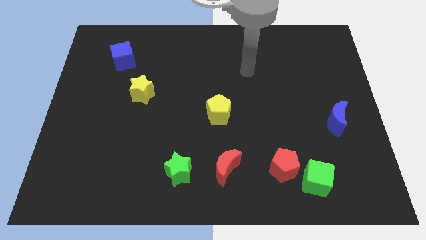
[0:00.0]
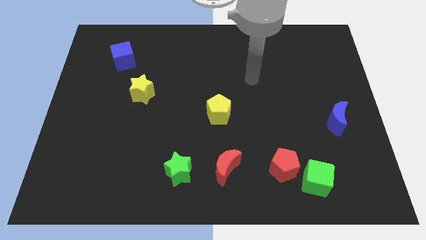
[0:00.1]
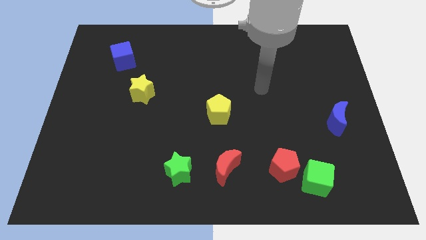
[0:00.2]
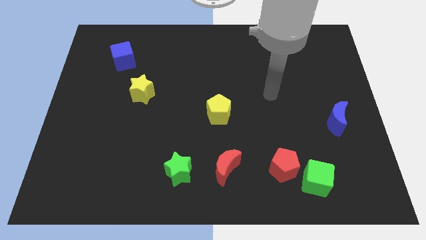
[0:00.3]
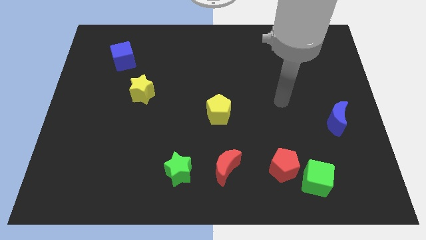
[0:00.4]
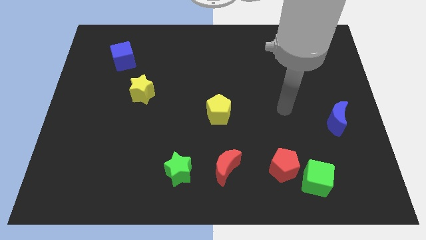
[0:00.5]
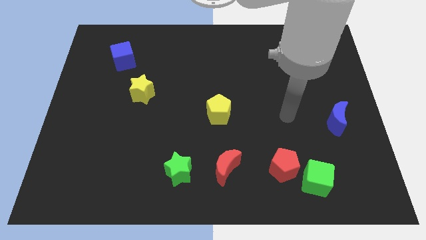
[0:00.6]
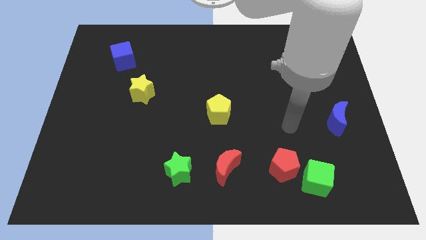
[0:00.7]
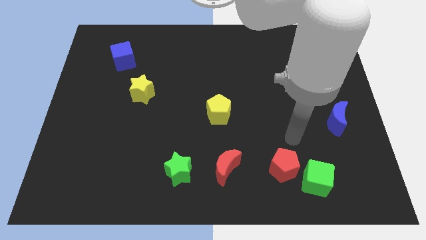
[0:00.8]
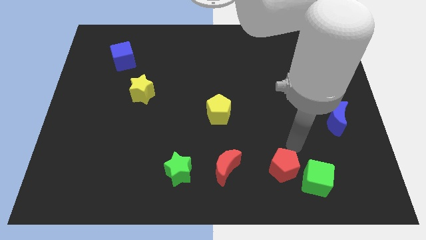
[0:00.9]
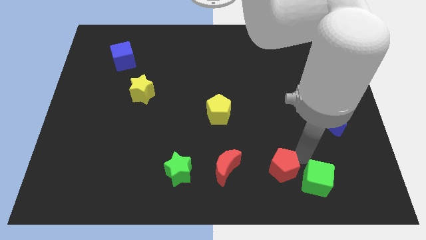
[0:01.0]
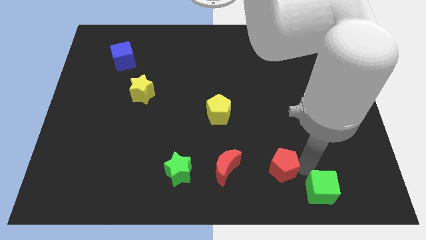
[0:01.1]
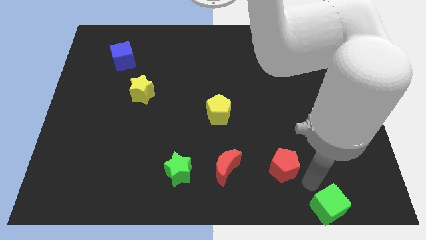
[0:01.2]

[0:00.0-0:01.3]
move the red pentagon away from the green cube

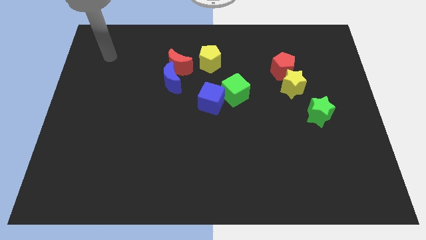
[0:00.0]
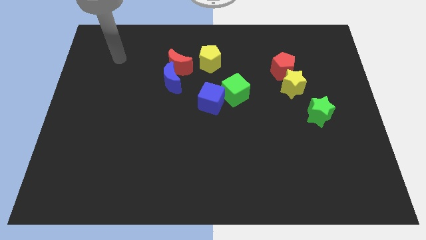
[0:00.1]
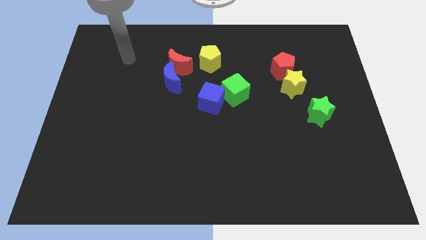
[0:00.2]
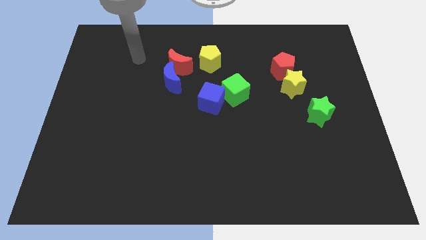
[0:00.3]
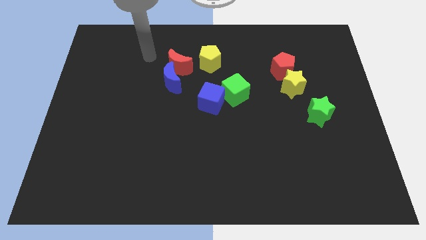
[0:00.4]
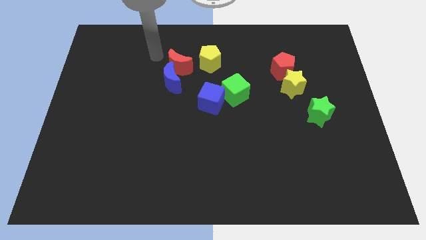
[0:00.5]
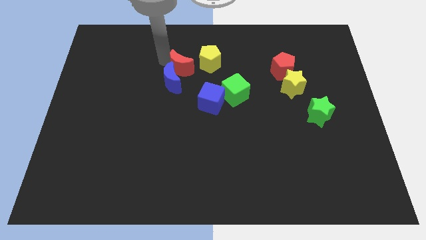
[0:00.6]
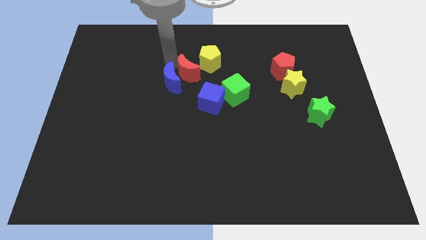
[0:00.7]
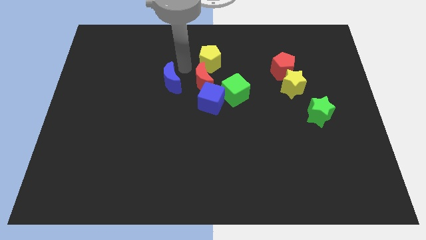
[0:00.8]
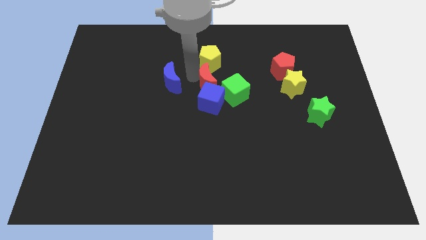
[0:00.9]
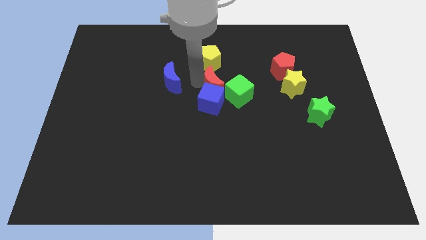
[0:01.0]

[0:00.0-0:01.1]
move the blue moon away from the red moon

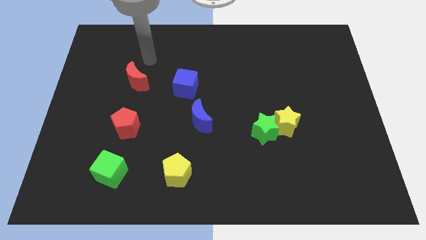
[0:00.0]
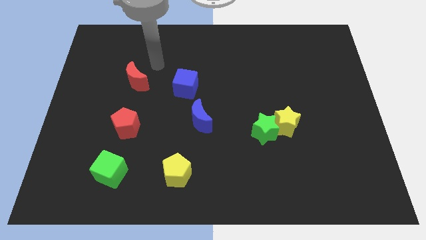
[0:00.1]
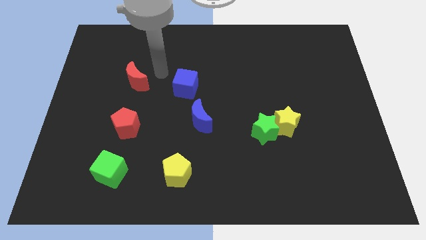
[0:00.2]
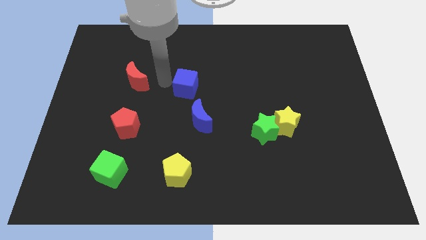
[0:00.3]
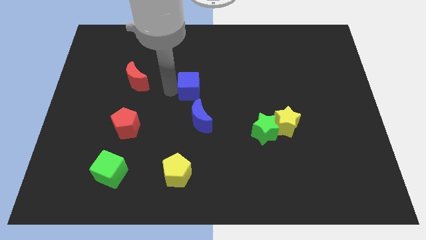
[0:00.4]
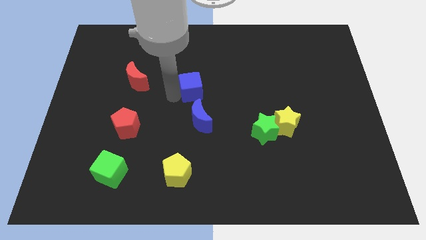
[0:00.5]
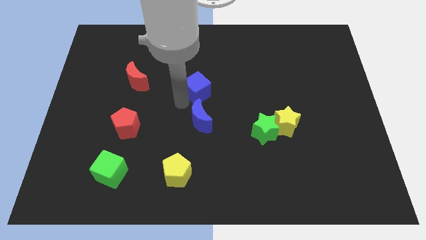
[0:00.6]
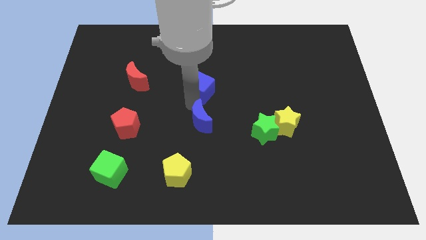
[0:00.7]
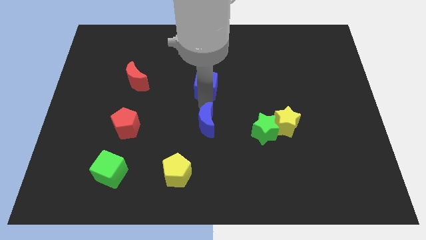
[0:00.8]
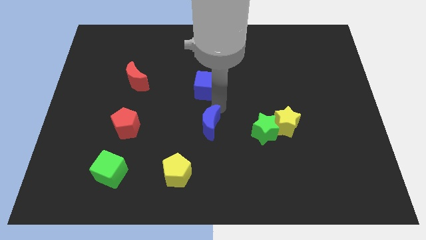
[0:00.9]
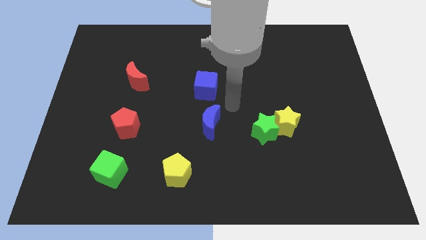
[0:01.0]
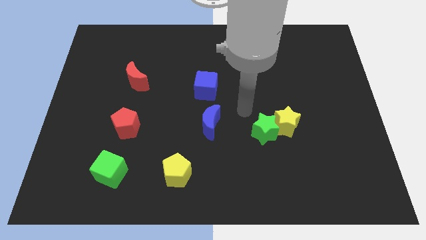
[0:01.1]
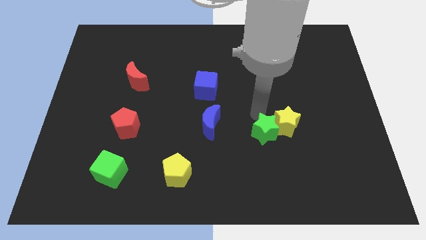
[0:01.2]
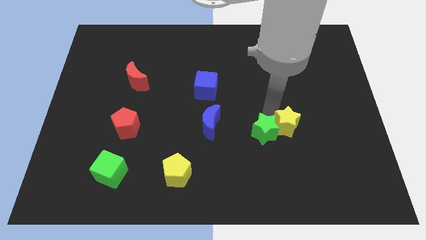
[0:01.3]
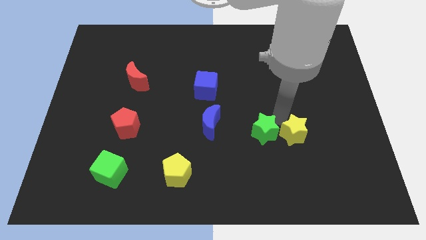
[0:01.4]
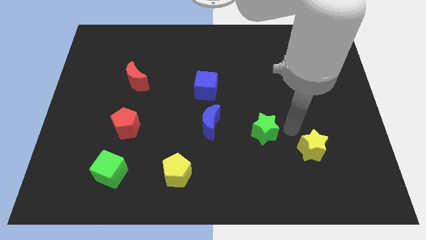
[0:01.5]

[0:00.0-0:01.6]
pull the green star apart from the yellow star

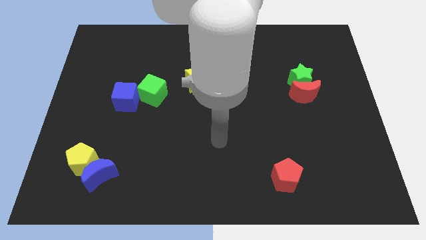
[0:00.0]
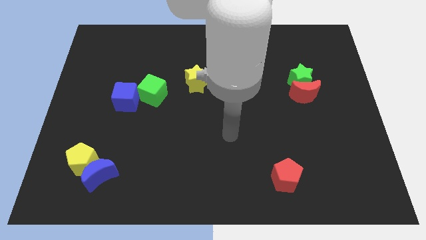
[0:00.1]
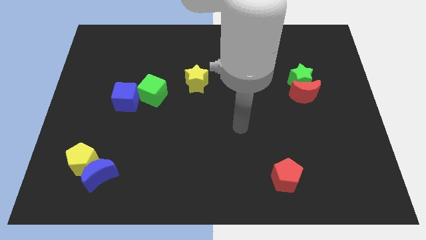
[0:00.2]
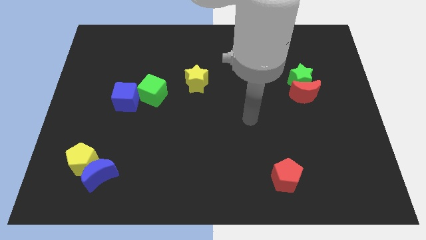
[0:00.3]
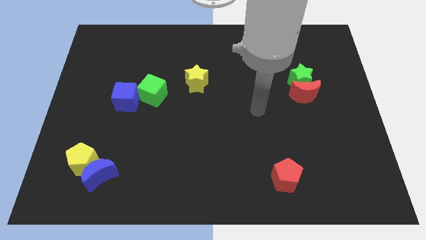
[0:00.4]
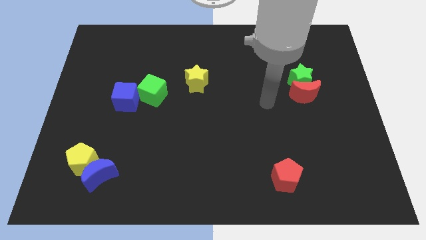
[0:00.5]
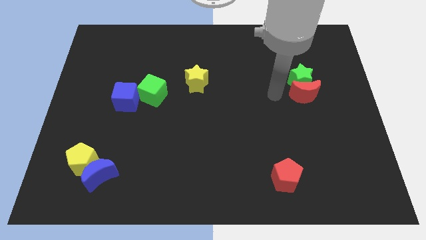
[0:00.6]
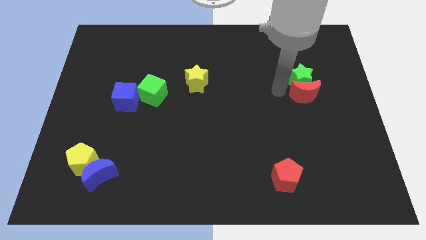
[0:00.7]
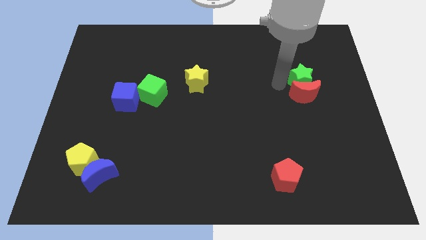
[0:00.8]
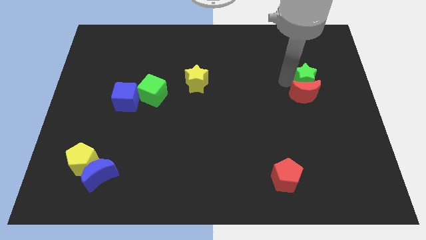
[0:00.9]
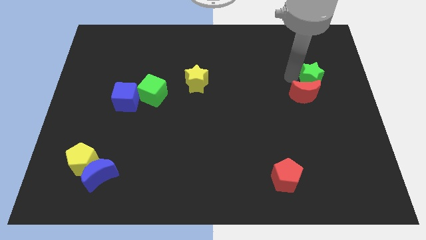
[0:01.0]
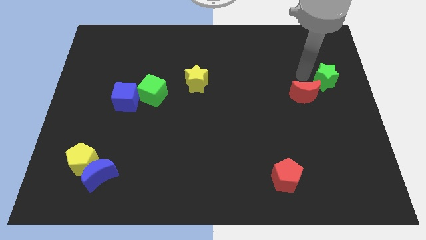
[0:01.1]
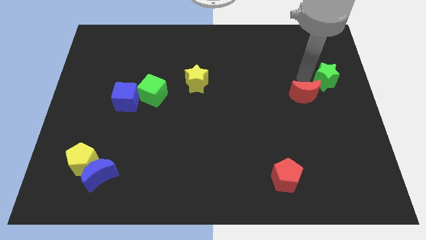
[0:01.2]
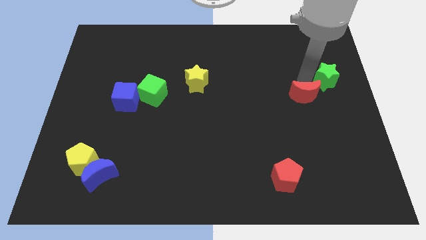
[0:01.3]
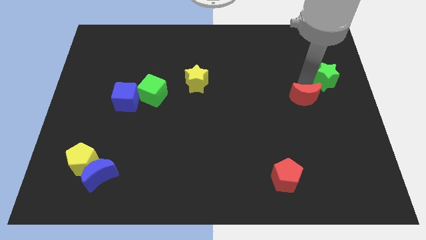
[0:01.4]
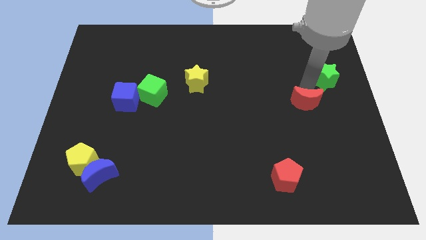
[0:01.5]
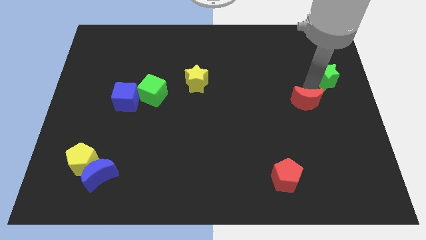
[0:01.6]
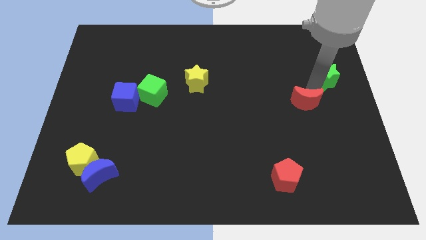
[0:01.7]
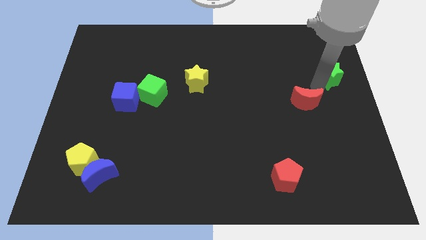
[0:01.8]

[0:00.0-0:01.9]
move the red moon away from the green star

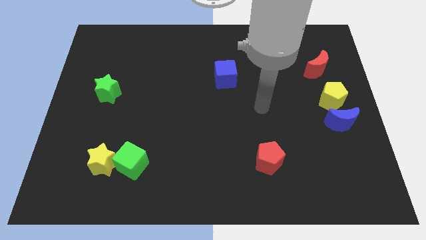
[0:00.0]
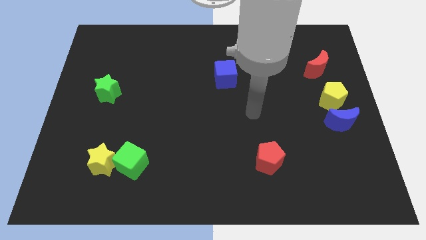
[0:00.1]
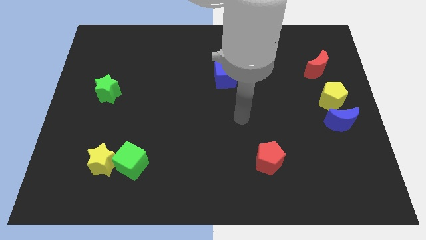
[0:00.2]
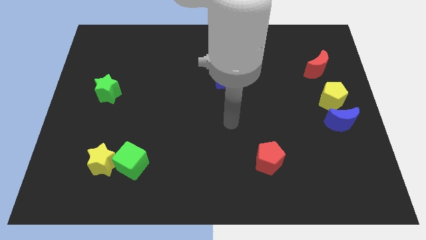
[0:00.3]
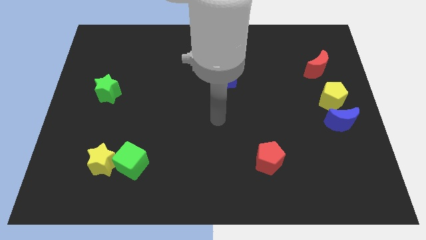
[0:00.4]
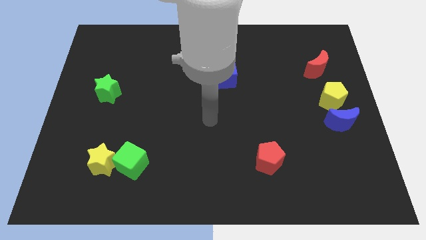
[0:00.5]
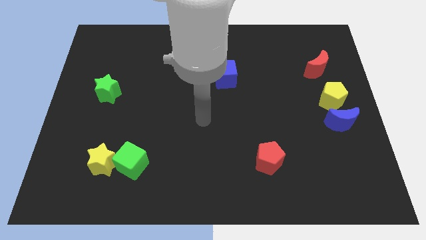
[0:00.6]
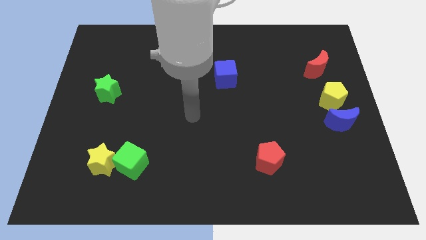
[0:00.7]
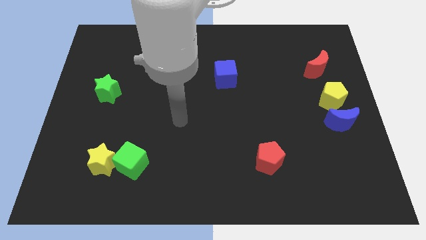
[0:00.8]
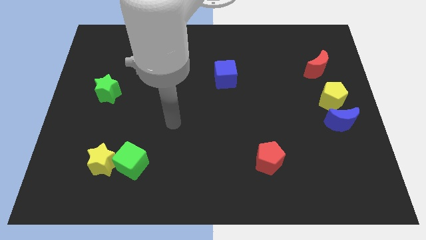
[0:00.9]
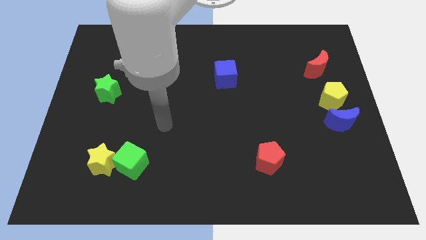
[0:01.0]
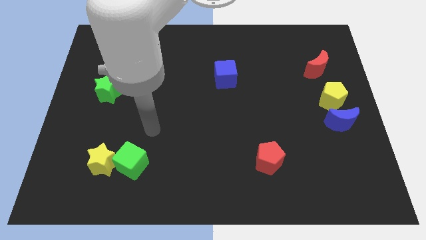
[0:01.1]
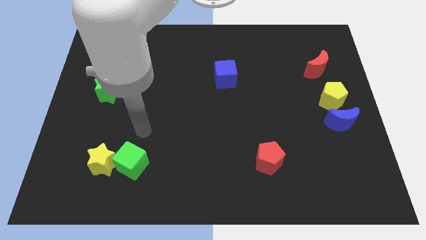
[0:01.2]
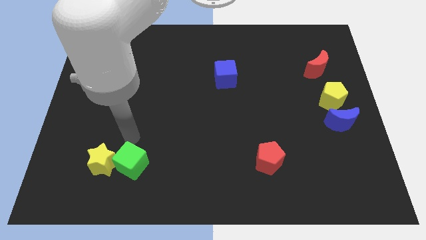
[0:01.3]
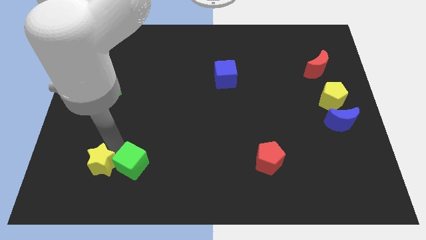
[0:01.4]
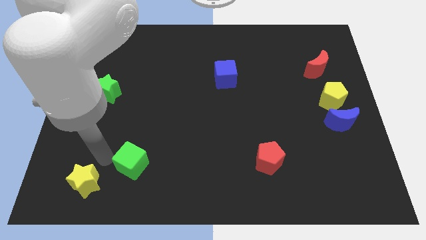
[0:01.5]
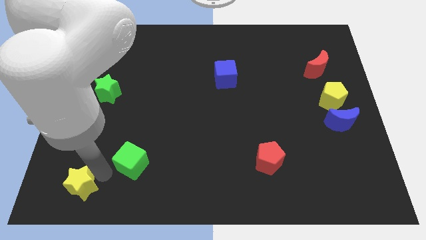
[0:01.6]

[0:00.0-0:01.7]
move the green cube away from the yellow star

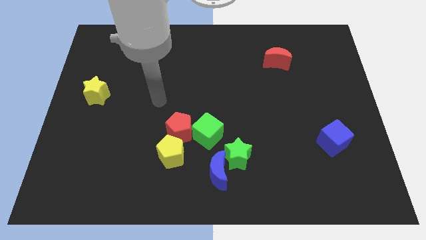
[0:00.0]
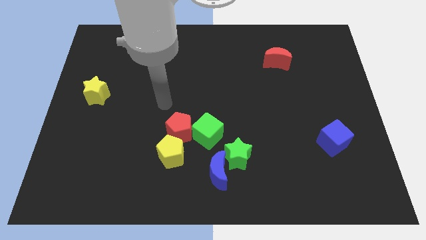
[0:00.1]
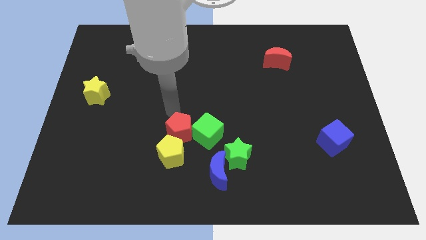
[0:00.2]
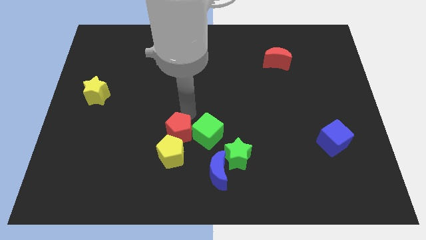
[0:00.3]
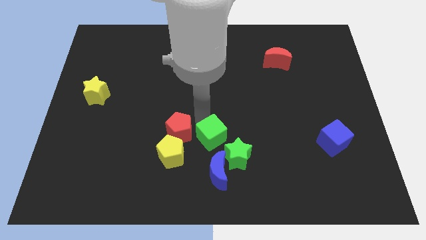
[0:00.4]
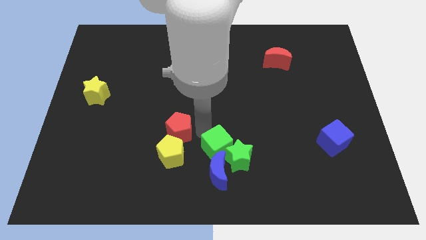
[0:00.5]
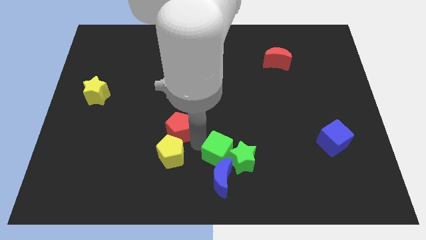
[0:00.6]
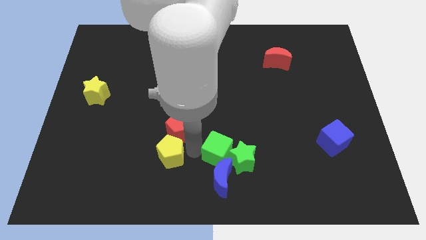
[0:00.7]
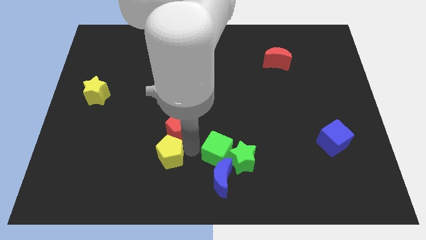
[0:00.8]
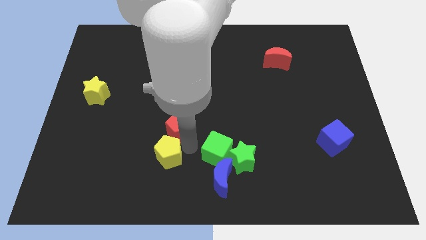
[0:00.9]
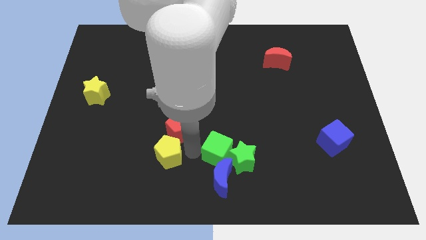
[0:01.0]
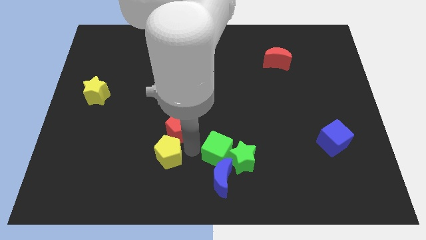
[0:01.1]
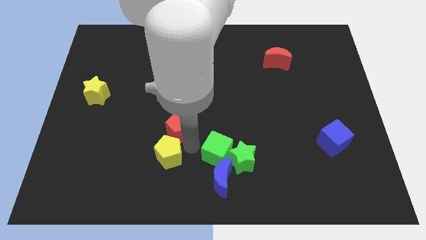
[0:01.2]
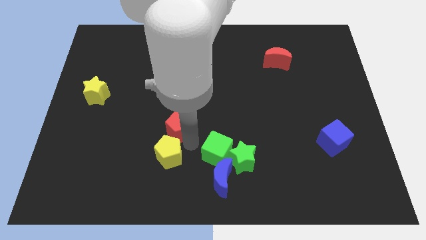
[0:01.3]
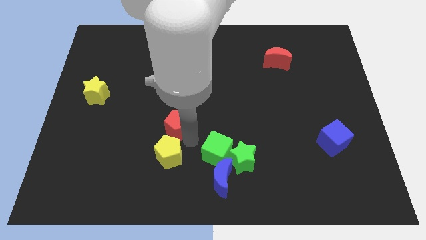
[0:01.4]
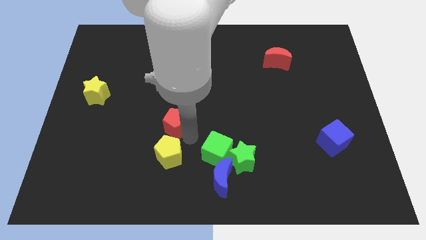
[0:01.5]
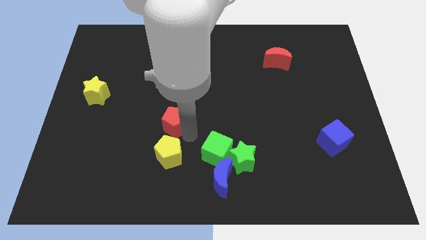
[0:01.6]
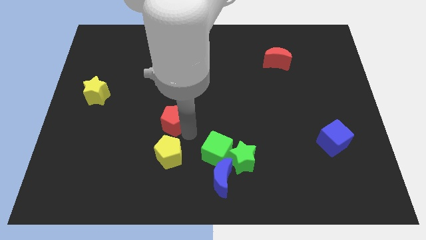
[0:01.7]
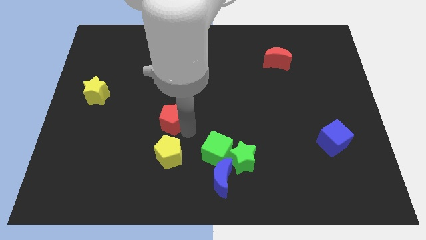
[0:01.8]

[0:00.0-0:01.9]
separate the red pentagon from the green cube and yellow pentagon
